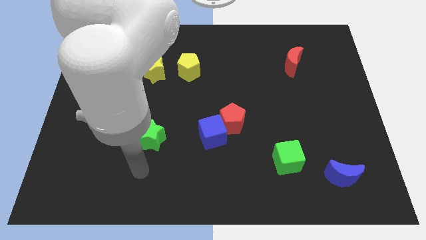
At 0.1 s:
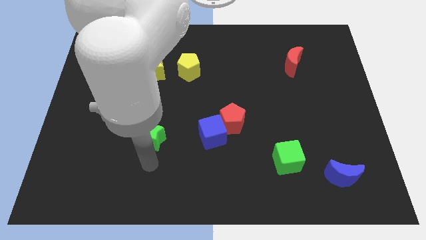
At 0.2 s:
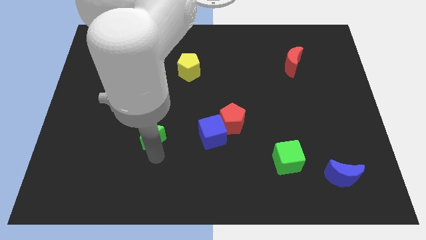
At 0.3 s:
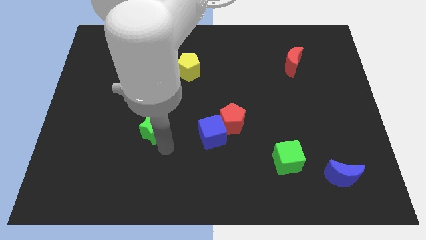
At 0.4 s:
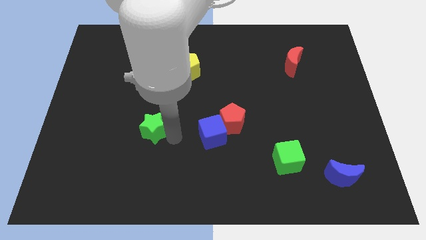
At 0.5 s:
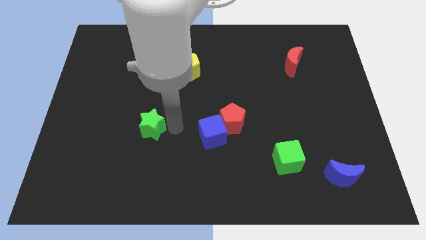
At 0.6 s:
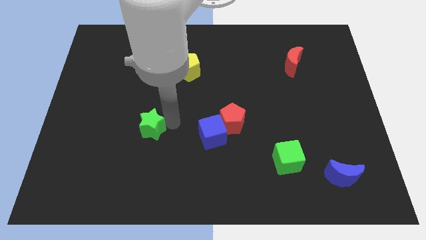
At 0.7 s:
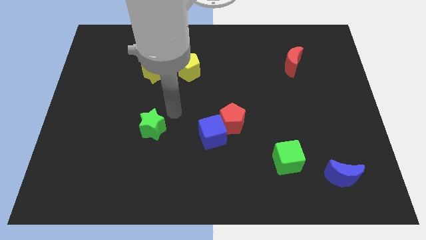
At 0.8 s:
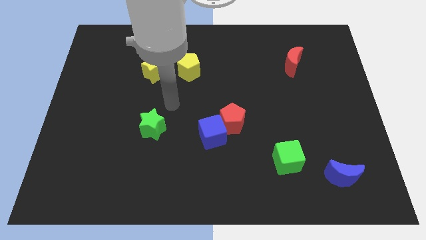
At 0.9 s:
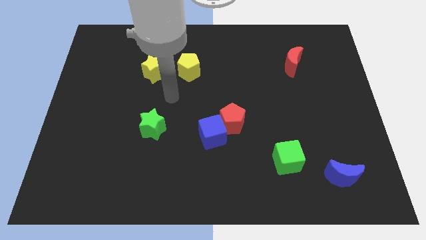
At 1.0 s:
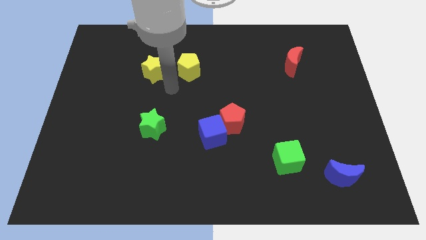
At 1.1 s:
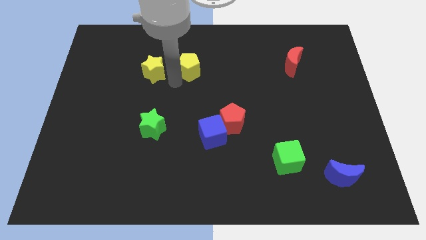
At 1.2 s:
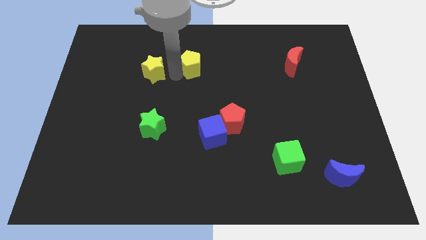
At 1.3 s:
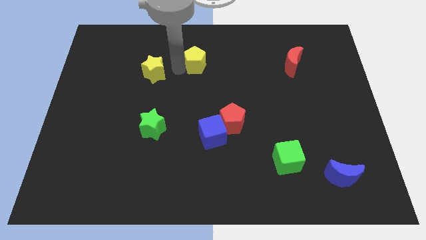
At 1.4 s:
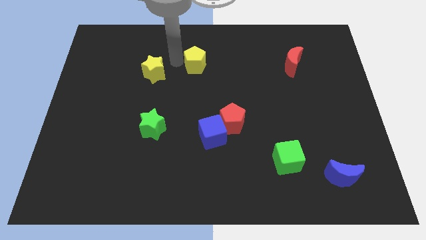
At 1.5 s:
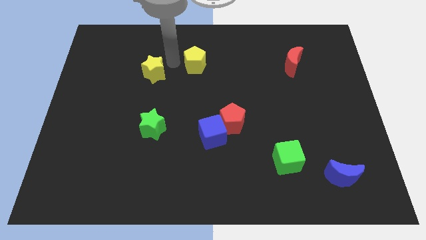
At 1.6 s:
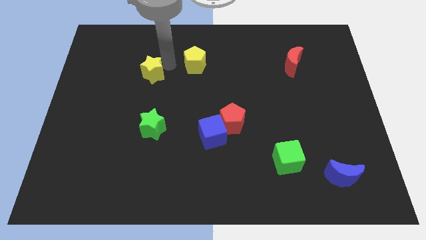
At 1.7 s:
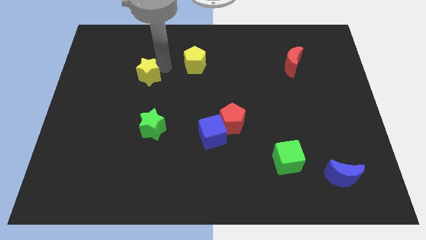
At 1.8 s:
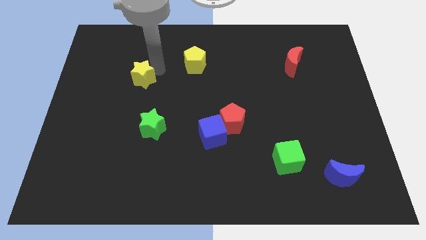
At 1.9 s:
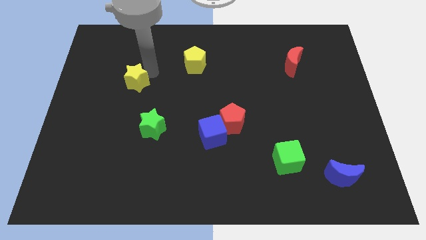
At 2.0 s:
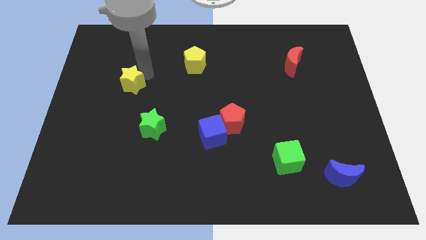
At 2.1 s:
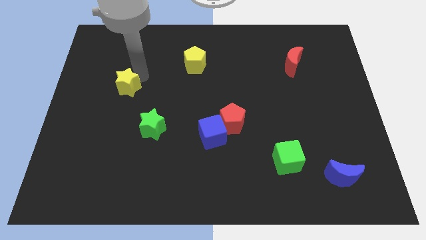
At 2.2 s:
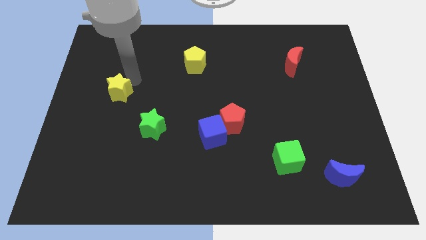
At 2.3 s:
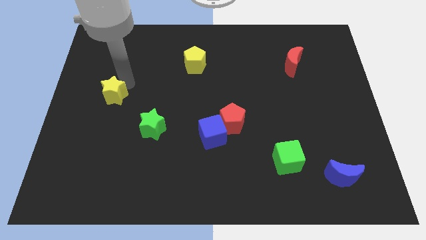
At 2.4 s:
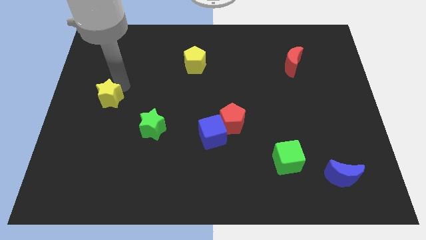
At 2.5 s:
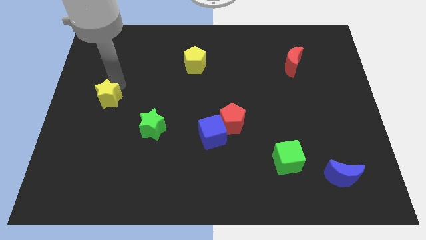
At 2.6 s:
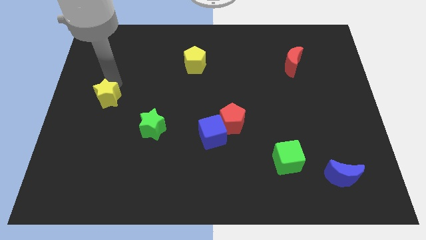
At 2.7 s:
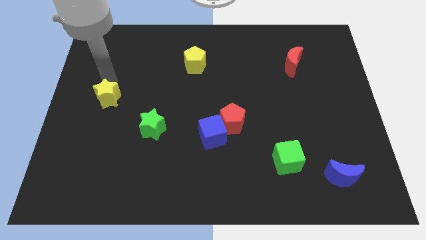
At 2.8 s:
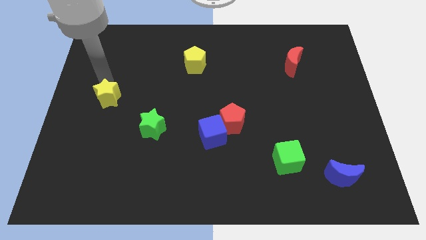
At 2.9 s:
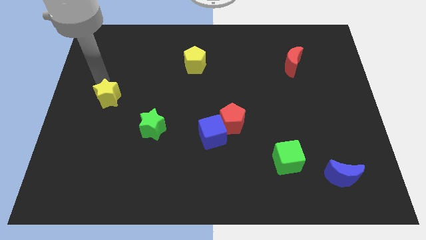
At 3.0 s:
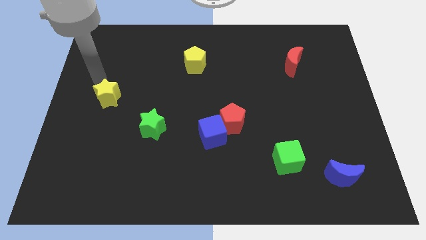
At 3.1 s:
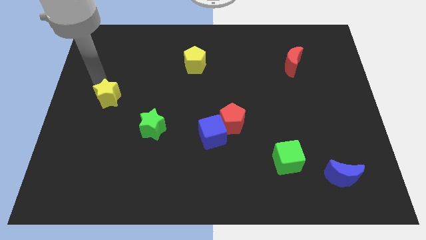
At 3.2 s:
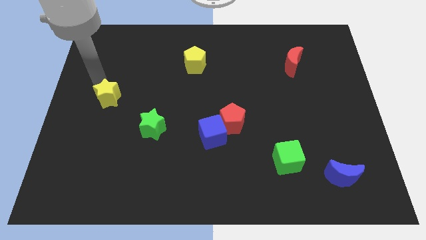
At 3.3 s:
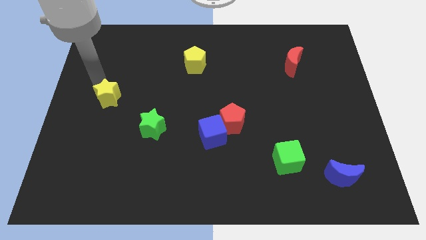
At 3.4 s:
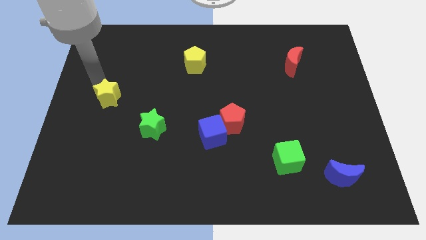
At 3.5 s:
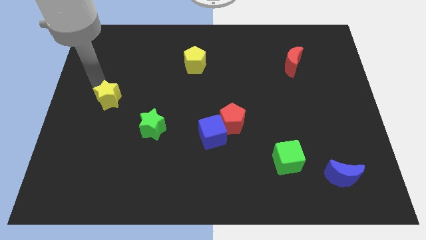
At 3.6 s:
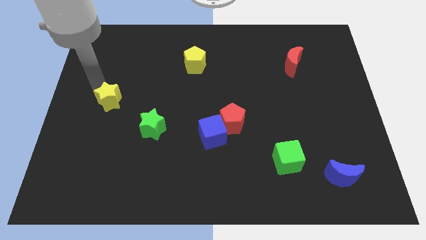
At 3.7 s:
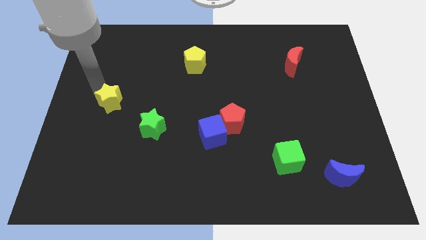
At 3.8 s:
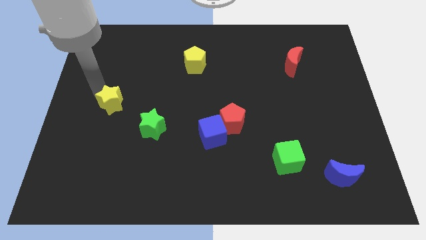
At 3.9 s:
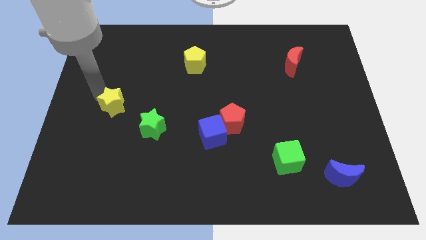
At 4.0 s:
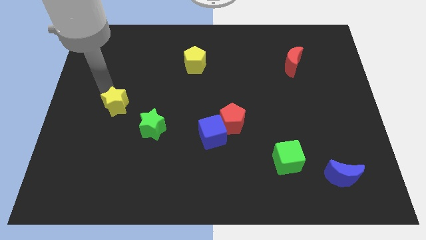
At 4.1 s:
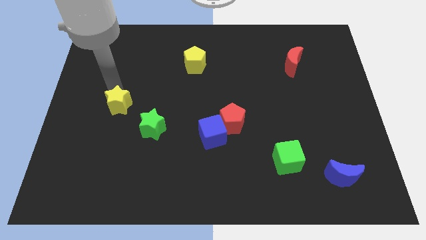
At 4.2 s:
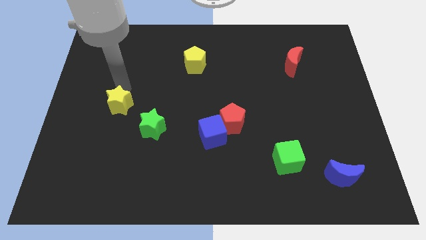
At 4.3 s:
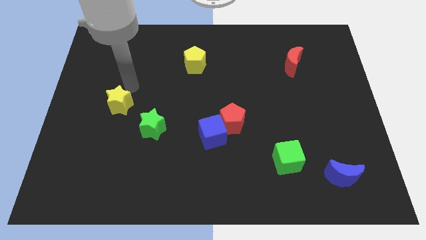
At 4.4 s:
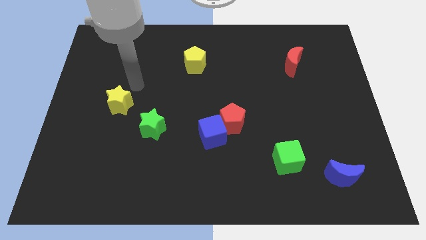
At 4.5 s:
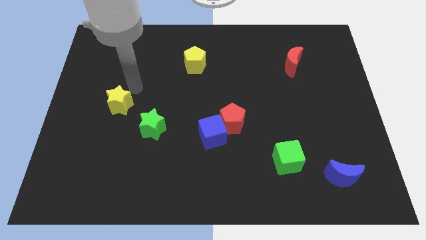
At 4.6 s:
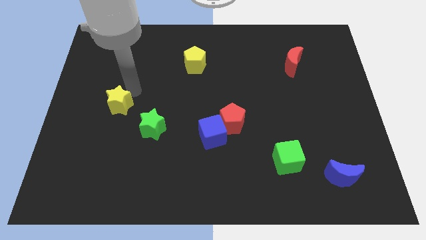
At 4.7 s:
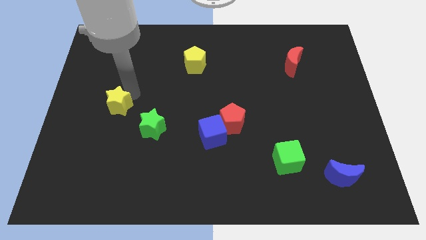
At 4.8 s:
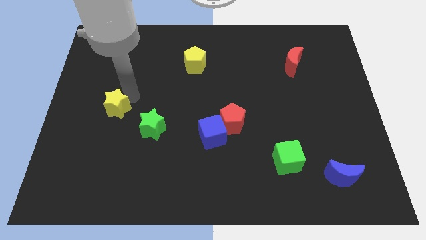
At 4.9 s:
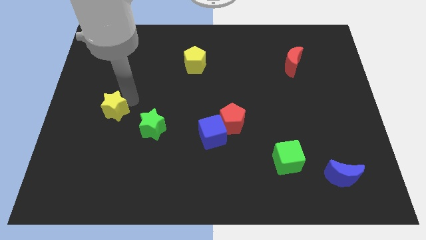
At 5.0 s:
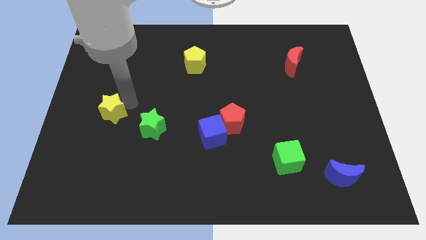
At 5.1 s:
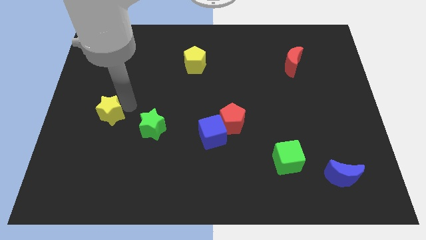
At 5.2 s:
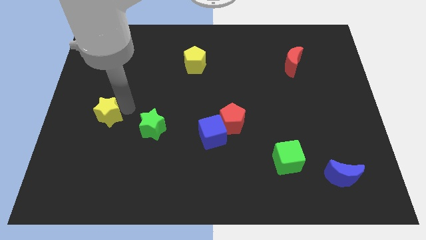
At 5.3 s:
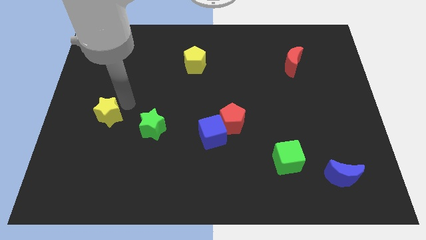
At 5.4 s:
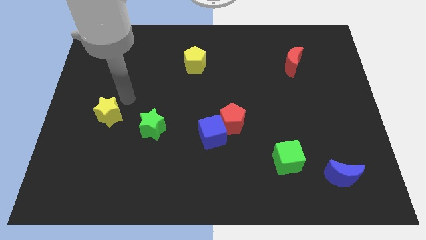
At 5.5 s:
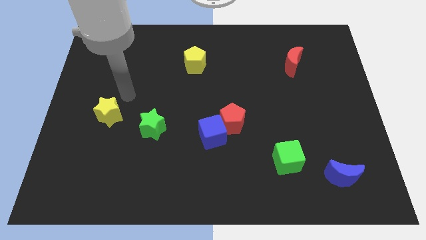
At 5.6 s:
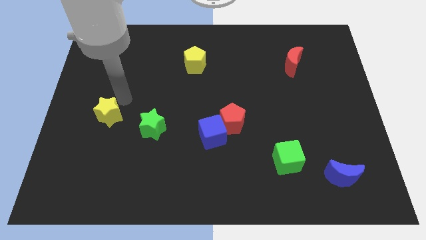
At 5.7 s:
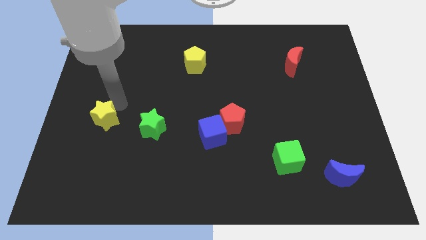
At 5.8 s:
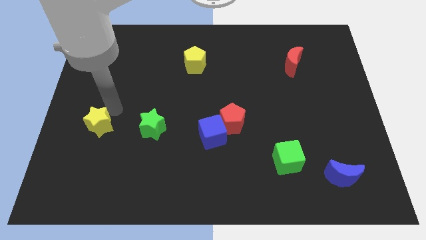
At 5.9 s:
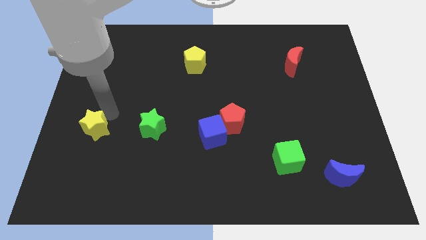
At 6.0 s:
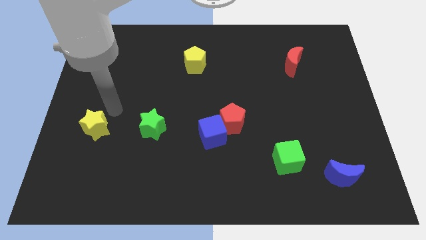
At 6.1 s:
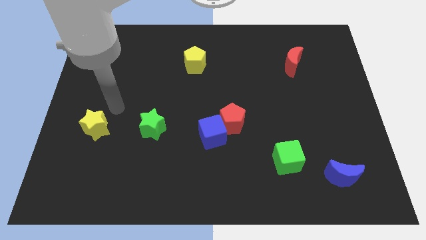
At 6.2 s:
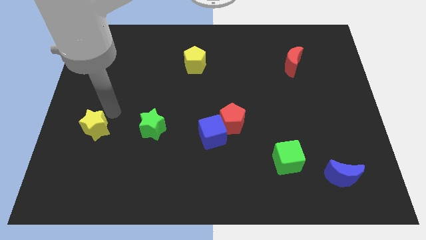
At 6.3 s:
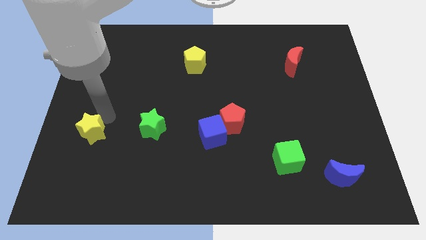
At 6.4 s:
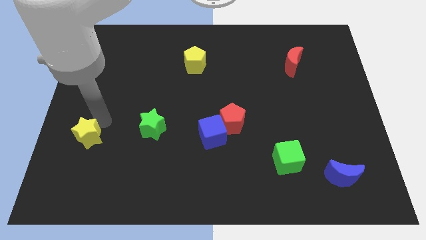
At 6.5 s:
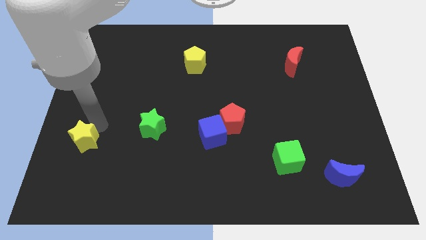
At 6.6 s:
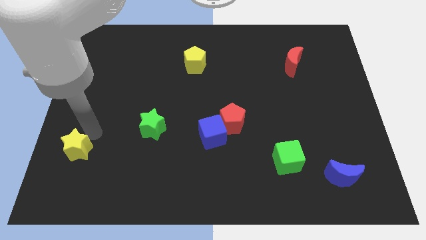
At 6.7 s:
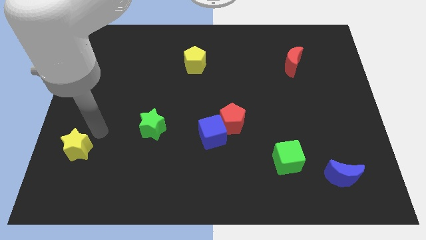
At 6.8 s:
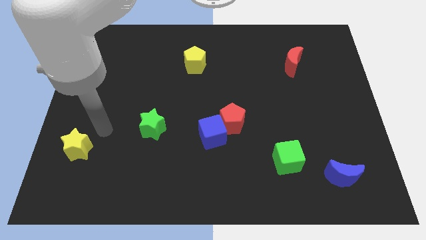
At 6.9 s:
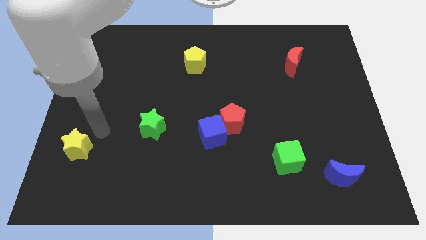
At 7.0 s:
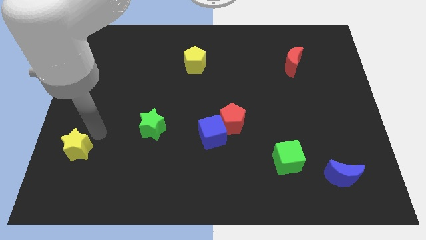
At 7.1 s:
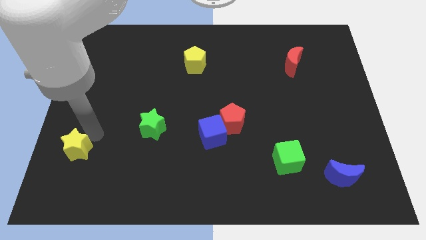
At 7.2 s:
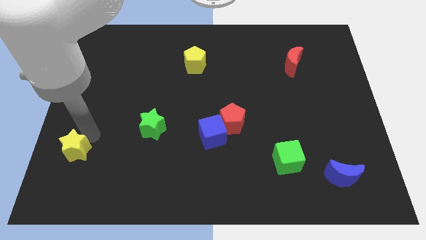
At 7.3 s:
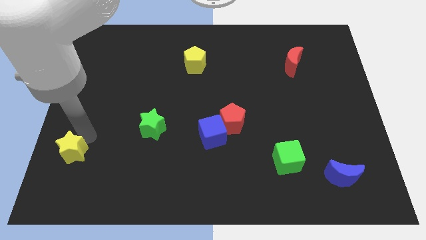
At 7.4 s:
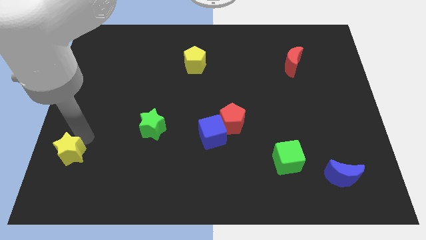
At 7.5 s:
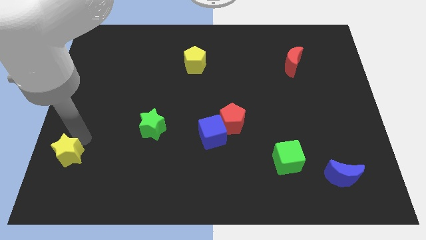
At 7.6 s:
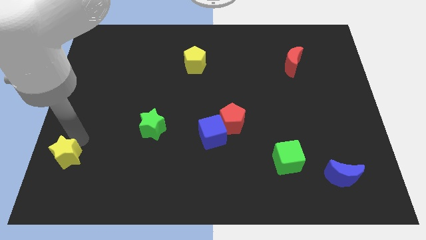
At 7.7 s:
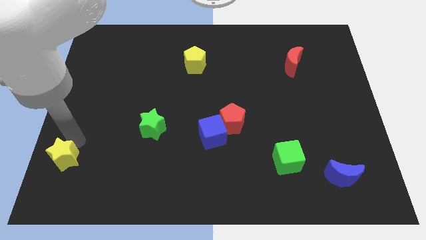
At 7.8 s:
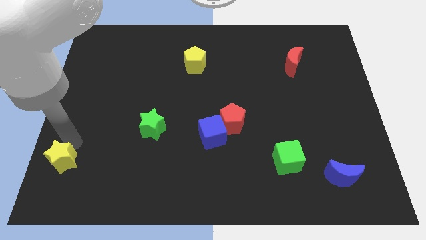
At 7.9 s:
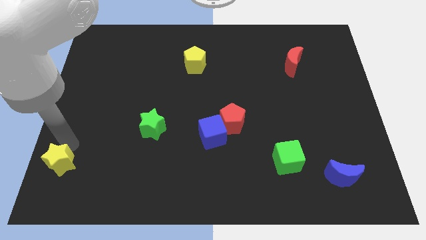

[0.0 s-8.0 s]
slide the yellow star to the lower left corner
